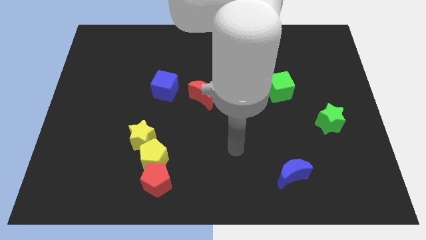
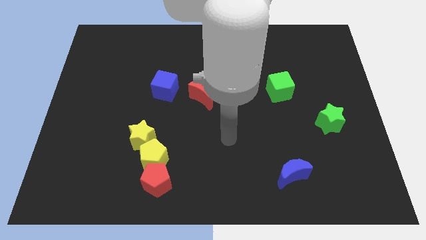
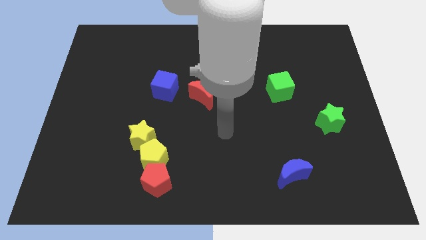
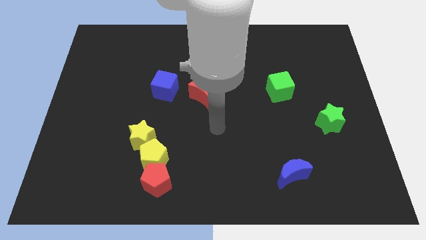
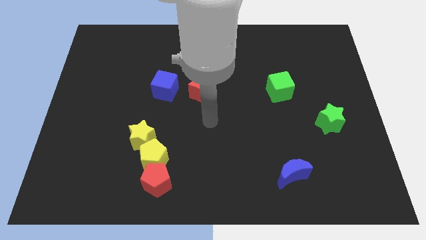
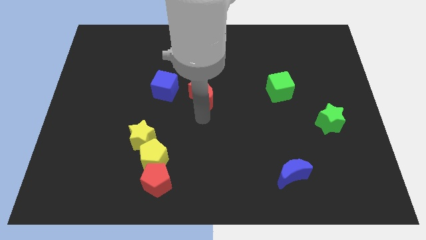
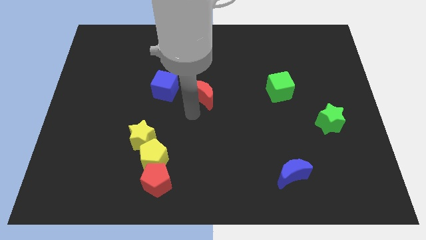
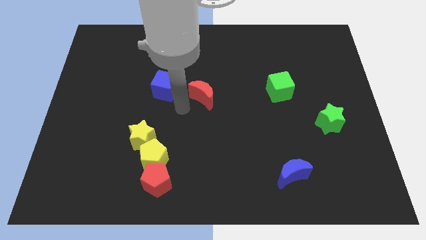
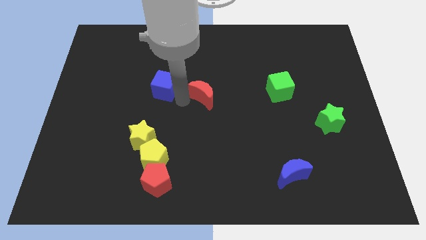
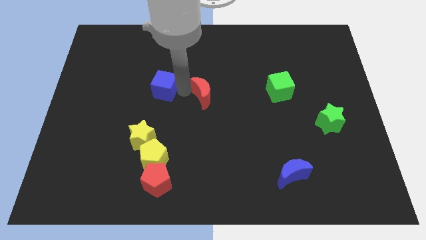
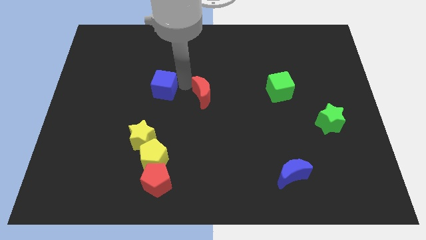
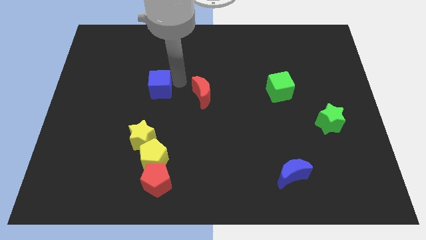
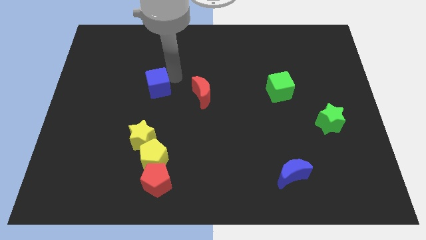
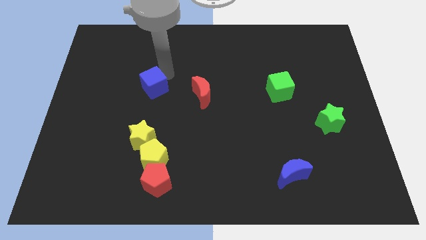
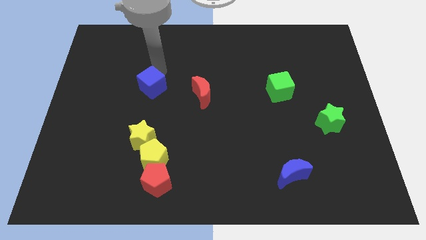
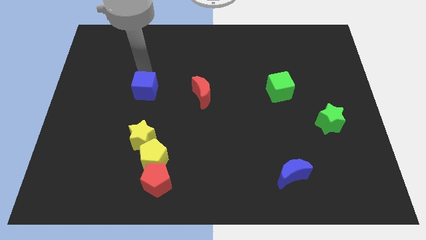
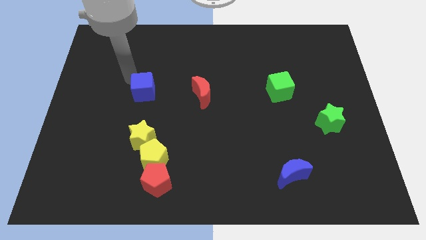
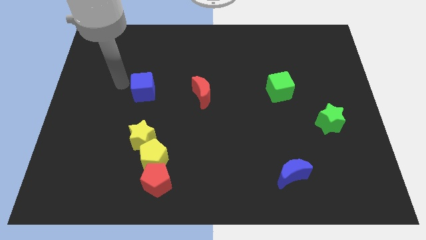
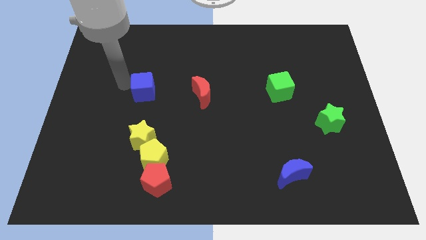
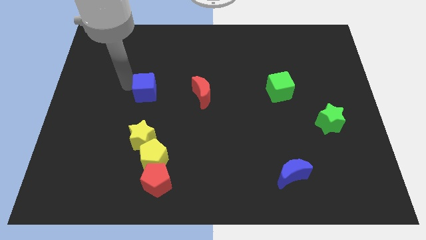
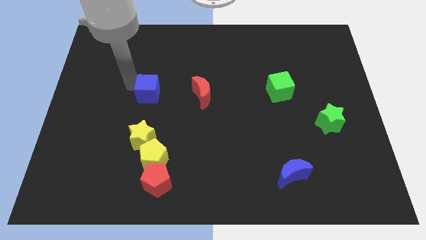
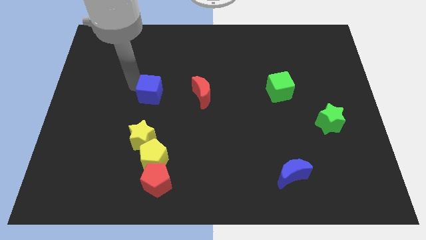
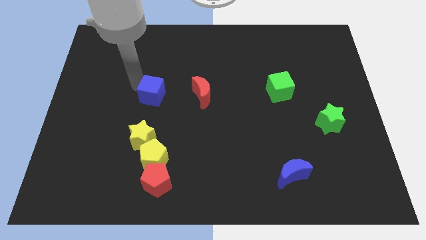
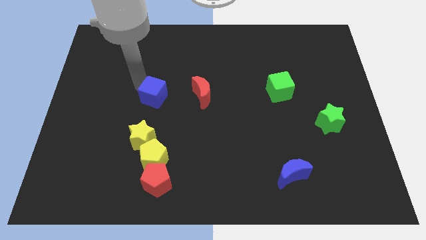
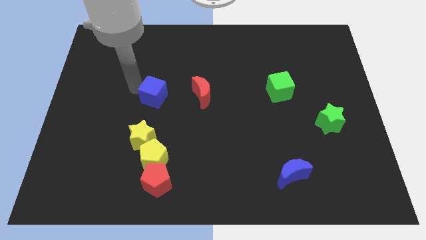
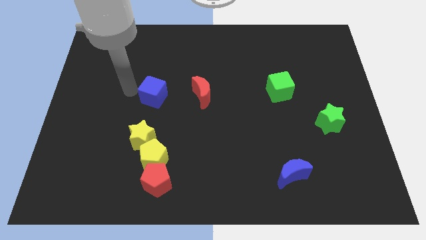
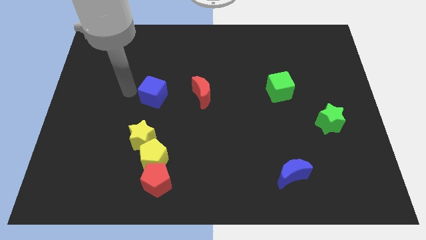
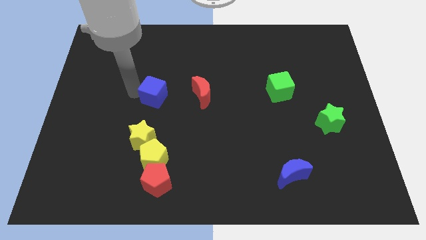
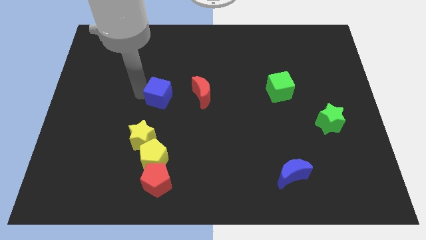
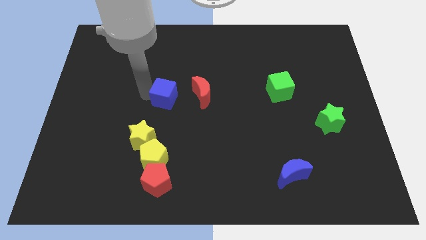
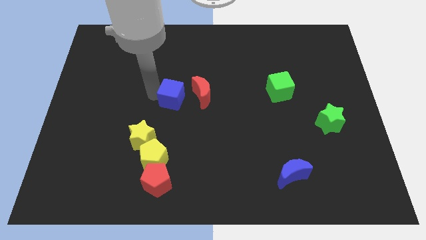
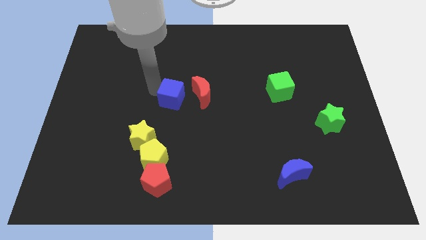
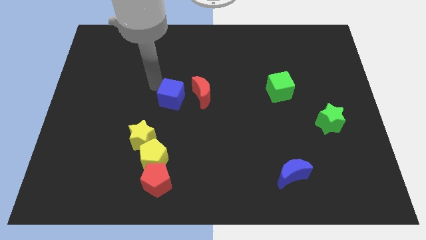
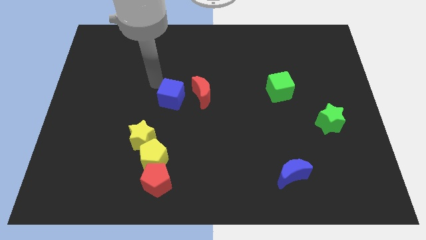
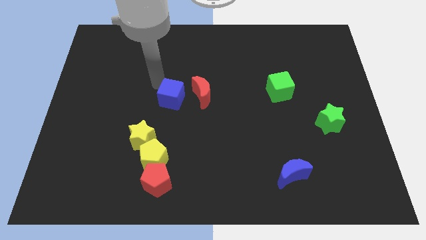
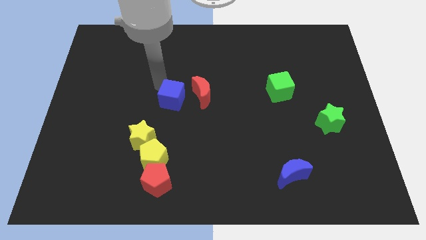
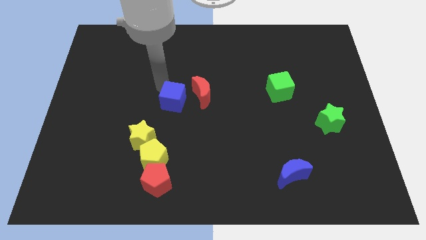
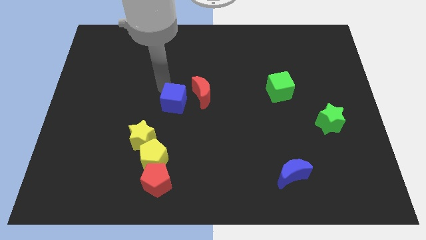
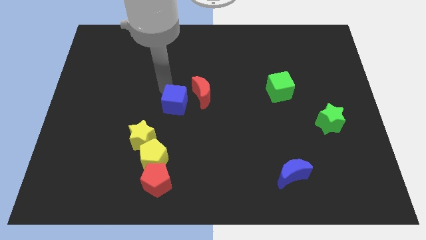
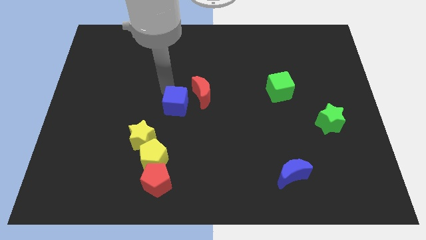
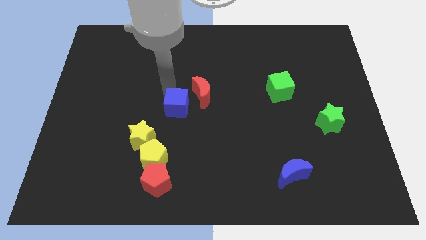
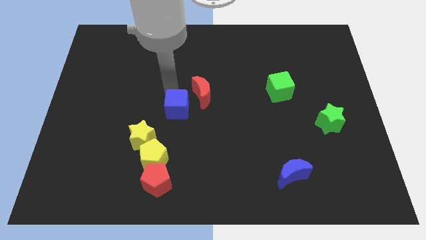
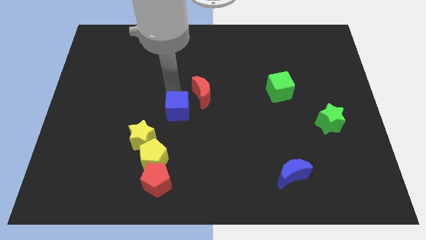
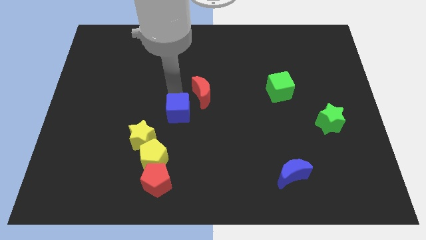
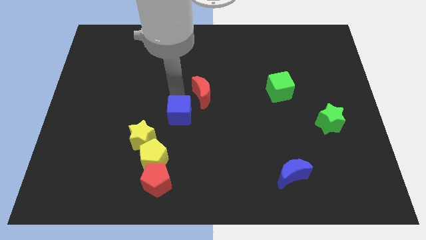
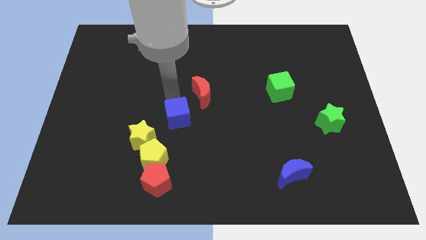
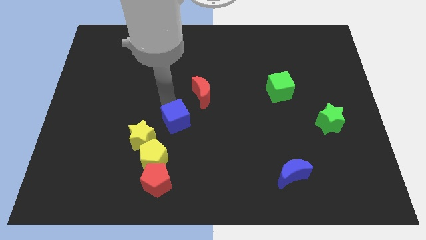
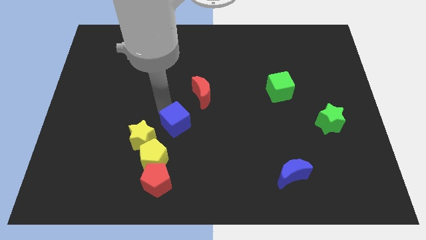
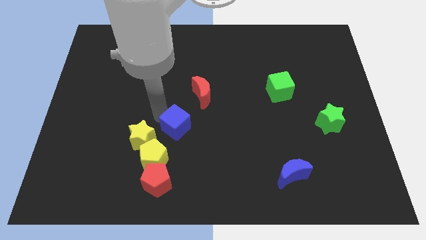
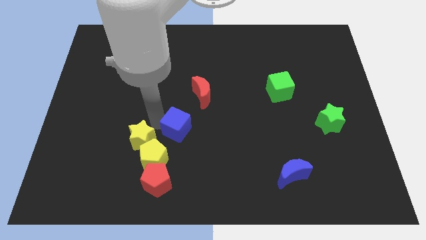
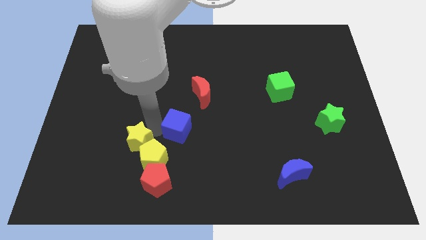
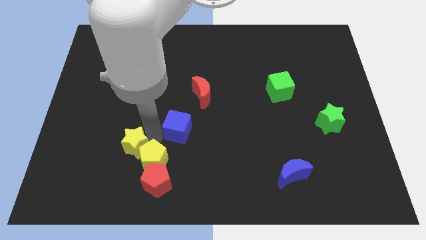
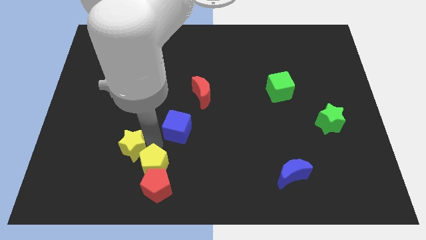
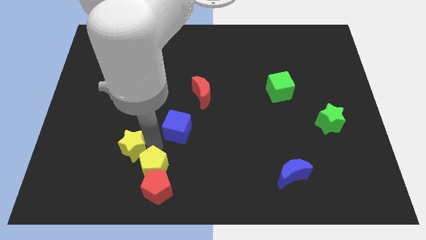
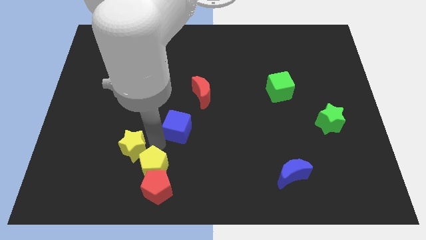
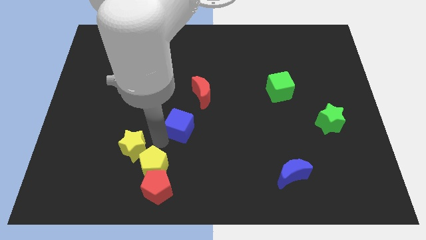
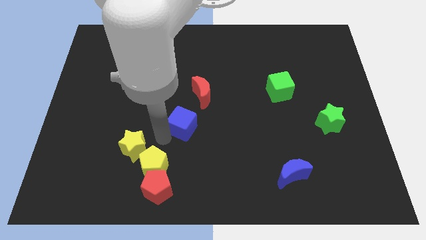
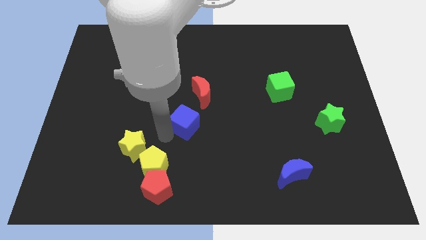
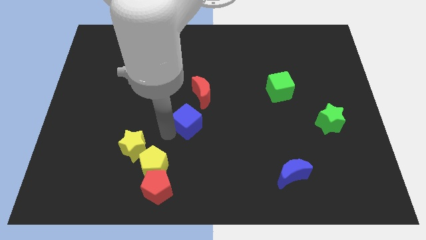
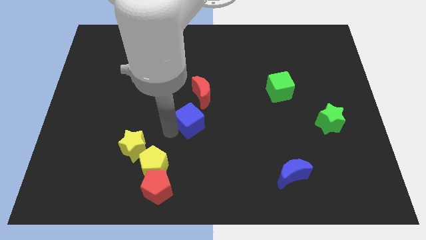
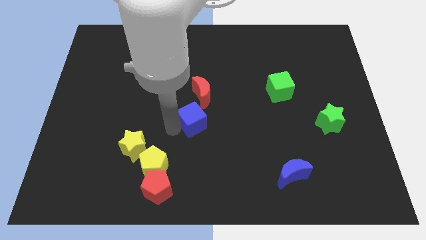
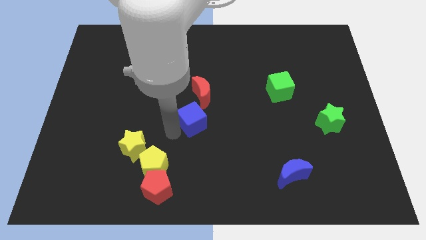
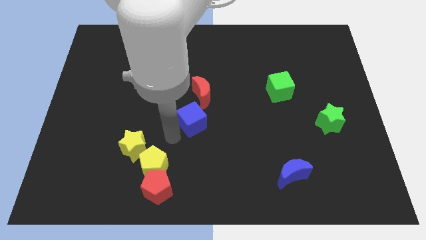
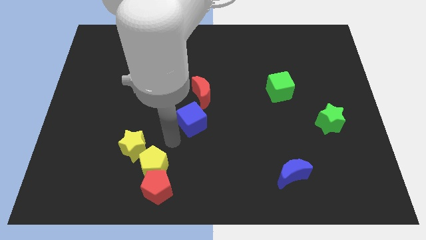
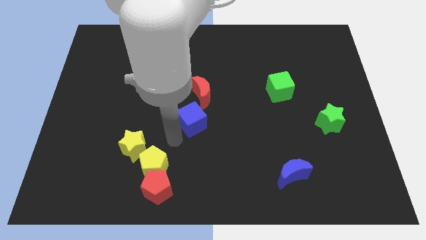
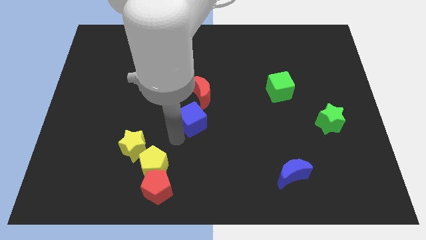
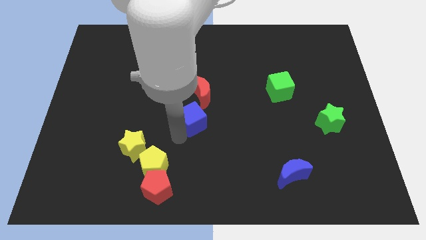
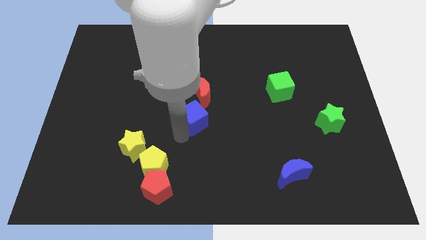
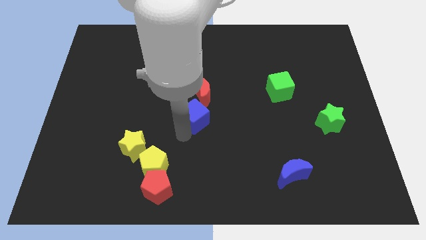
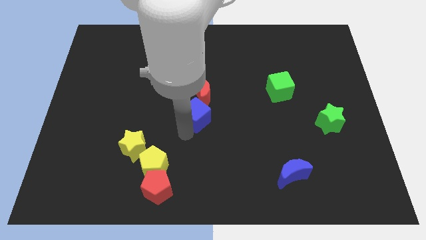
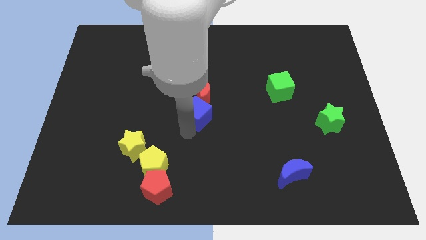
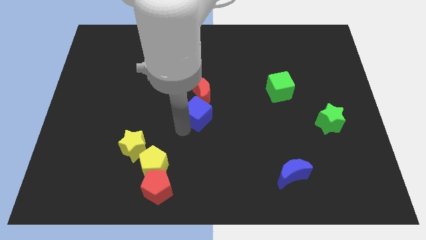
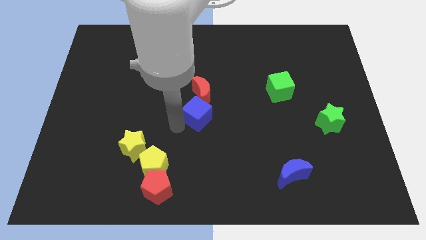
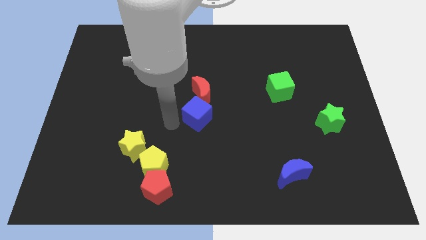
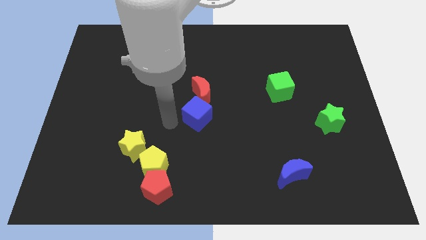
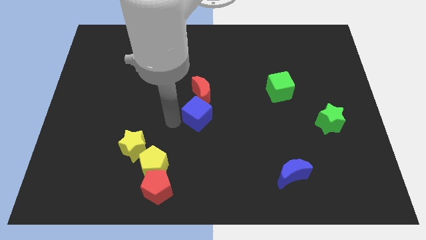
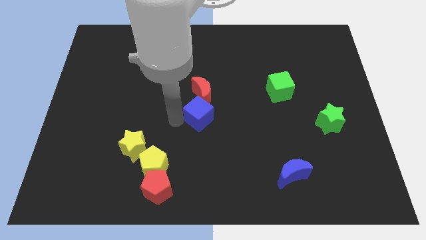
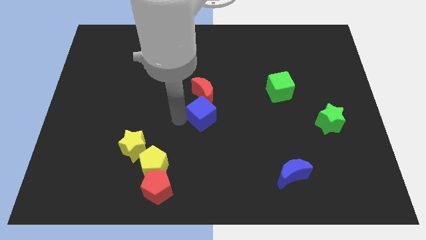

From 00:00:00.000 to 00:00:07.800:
slide the blue cube diagonally down and to the right of the red moon
